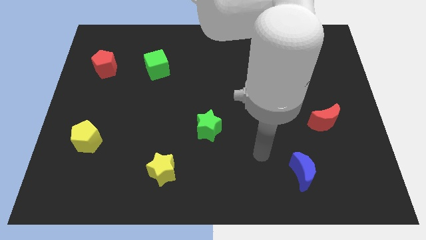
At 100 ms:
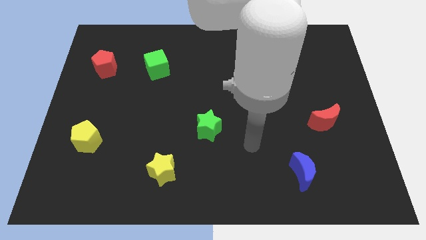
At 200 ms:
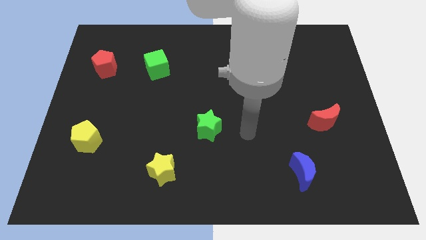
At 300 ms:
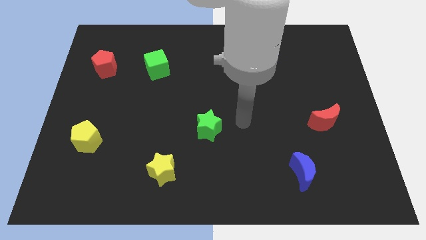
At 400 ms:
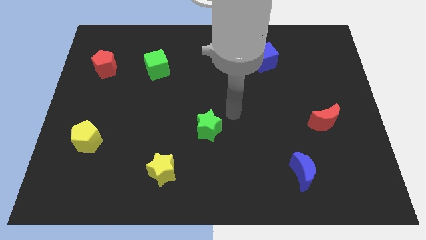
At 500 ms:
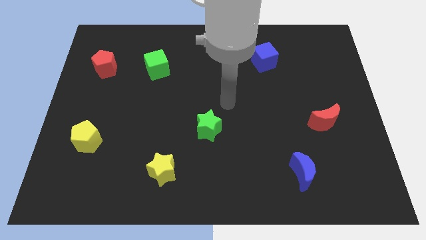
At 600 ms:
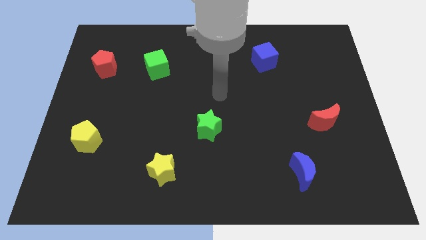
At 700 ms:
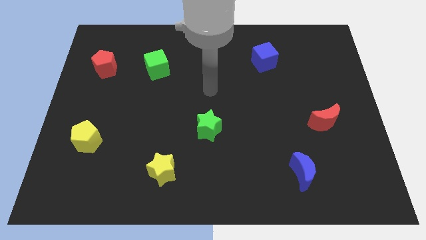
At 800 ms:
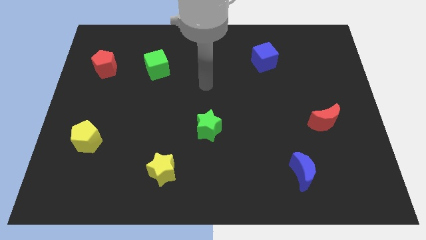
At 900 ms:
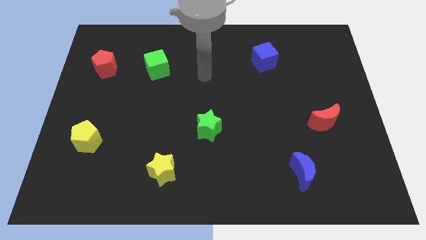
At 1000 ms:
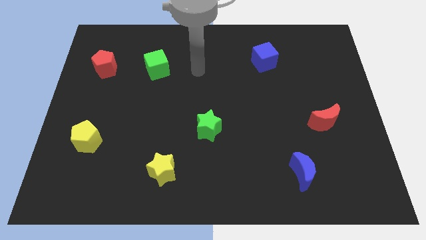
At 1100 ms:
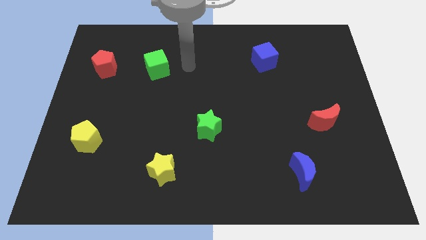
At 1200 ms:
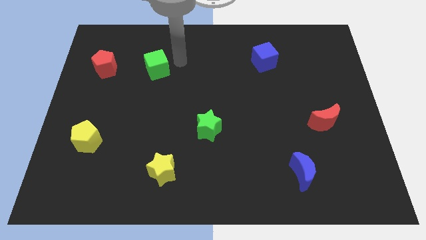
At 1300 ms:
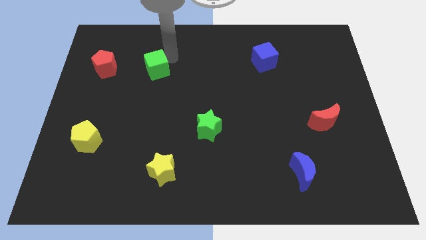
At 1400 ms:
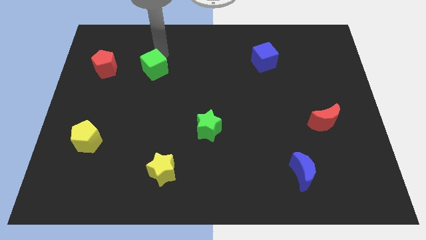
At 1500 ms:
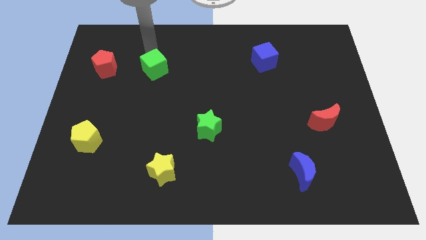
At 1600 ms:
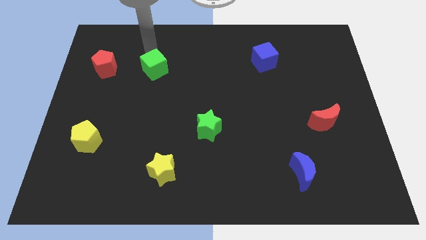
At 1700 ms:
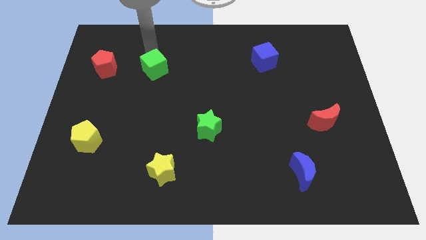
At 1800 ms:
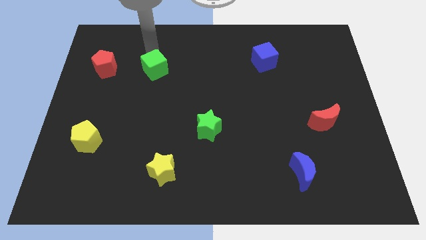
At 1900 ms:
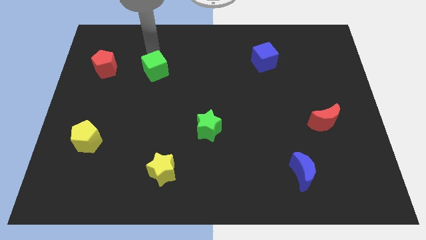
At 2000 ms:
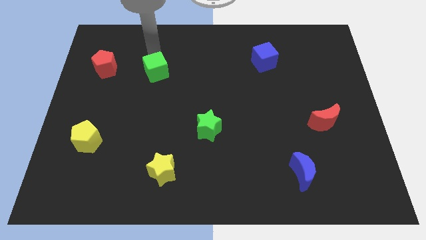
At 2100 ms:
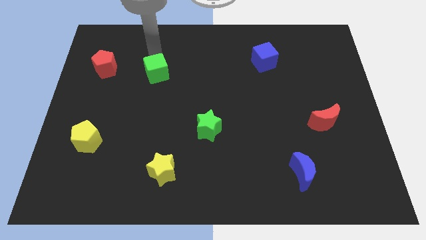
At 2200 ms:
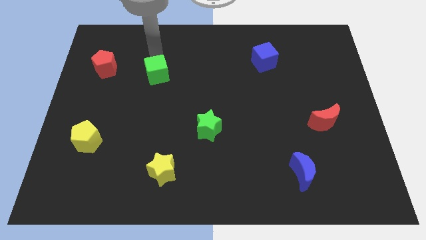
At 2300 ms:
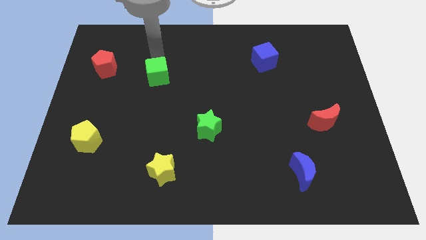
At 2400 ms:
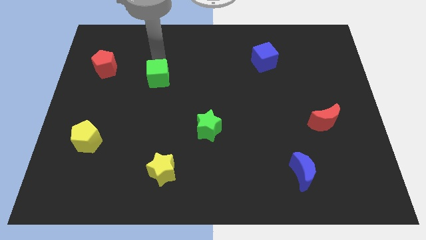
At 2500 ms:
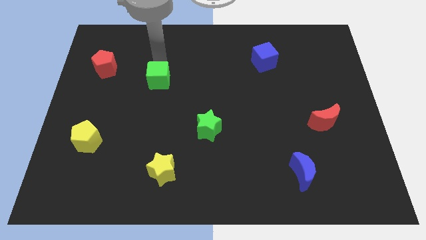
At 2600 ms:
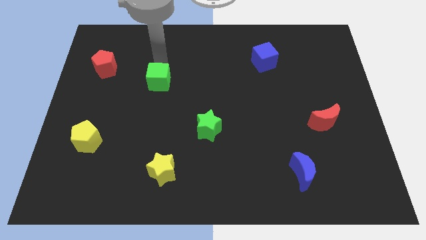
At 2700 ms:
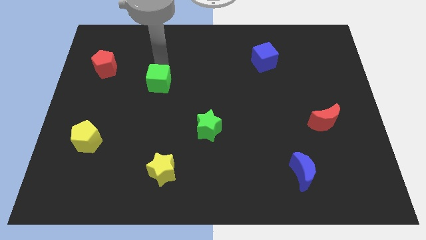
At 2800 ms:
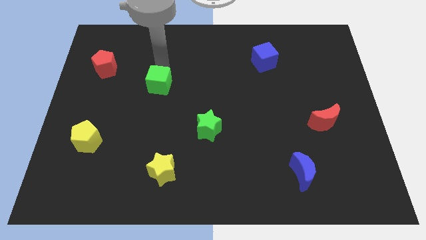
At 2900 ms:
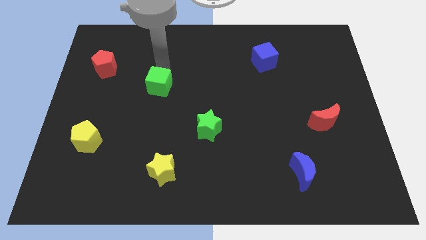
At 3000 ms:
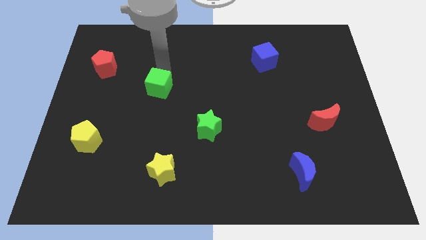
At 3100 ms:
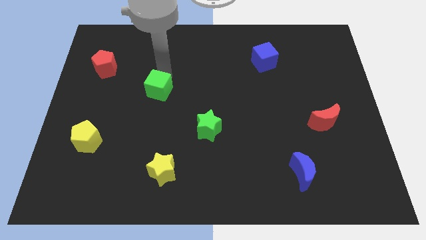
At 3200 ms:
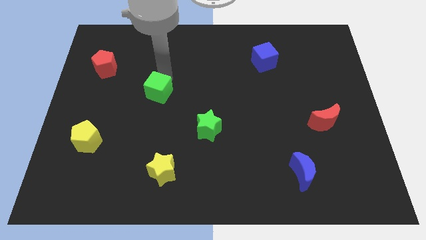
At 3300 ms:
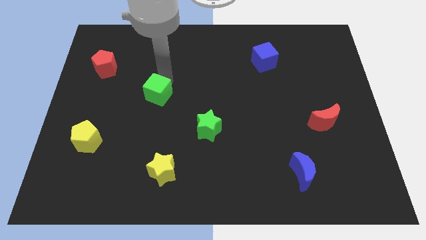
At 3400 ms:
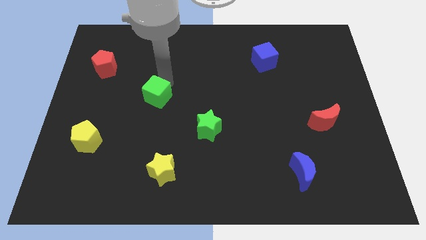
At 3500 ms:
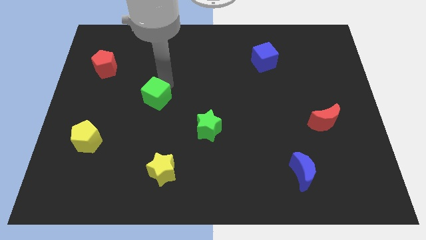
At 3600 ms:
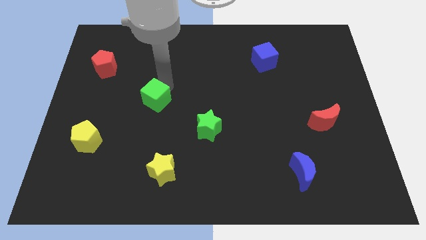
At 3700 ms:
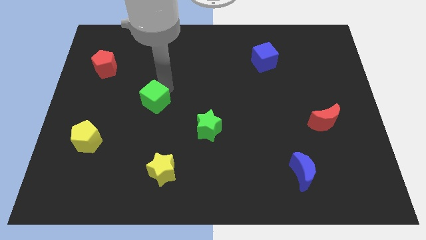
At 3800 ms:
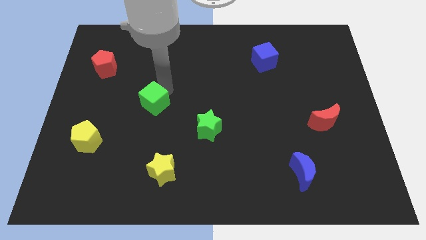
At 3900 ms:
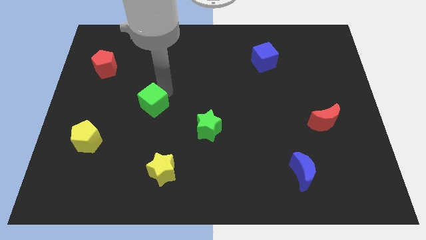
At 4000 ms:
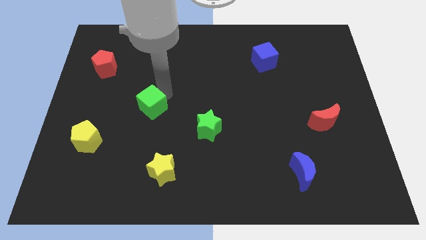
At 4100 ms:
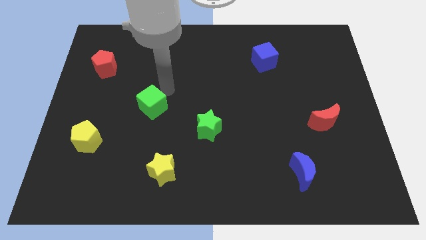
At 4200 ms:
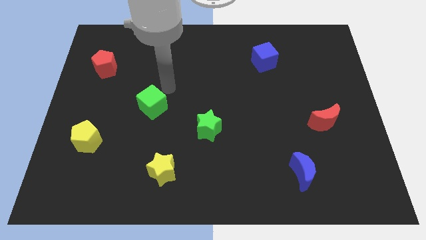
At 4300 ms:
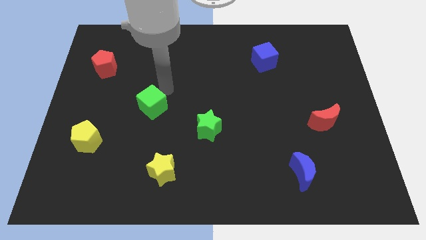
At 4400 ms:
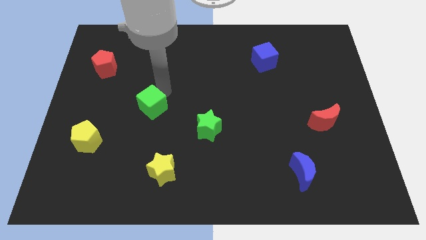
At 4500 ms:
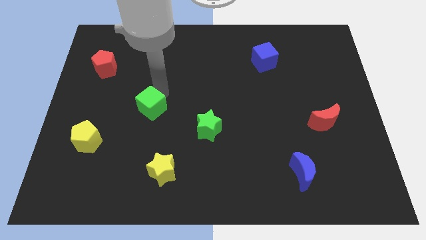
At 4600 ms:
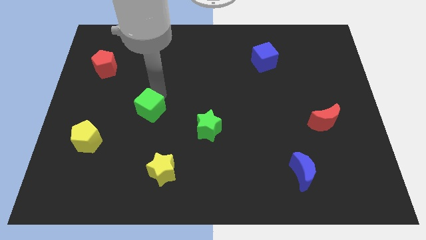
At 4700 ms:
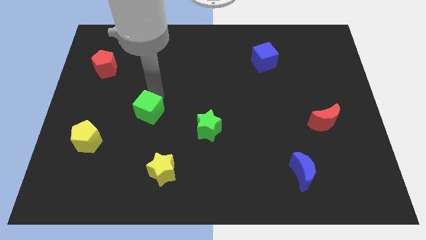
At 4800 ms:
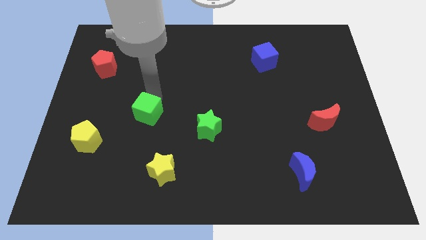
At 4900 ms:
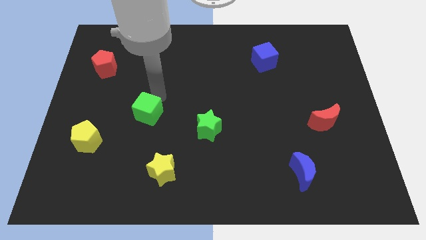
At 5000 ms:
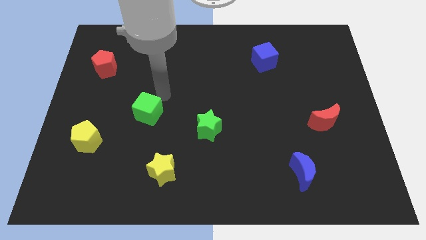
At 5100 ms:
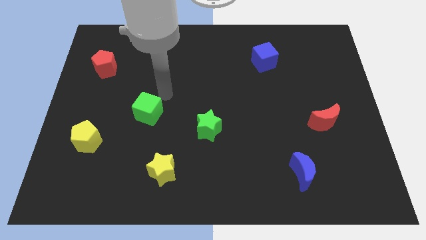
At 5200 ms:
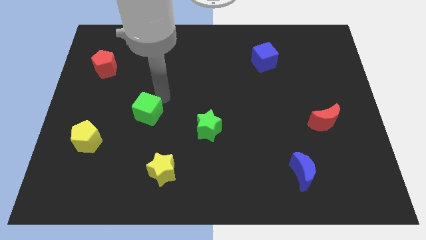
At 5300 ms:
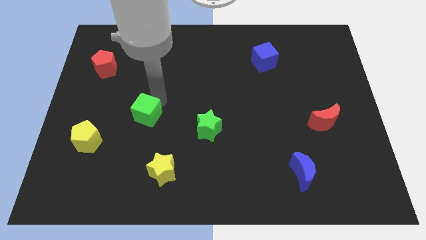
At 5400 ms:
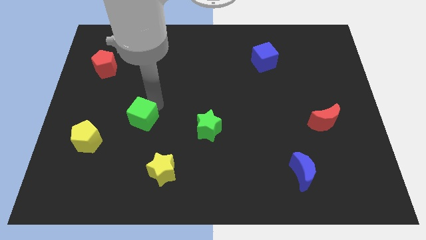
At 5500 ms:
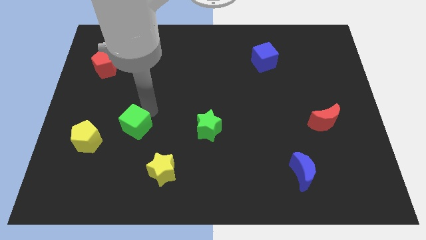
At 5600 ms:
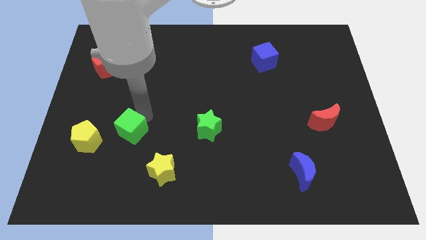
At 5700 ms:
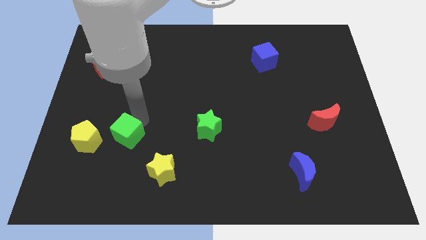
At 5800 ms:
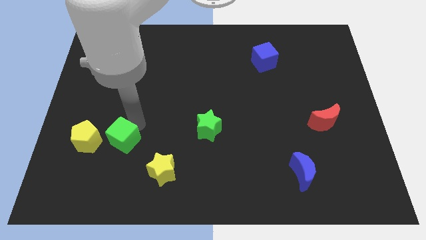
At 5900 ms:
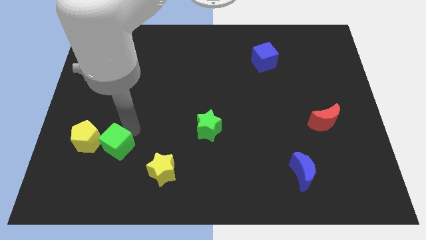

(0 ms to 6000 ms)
push the green cube diagonally down and to the right of the yellow pentagon

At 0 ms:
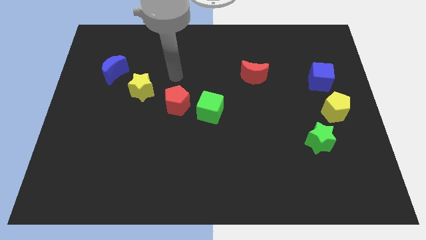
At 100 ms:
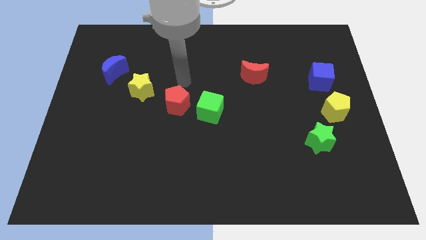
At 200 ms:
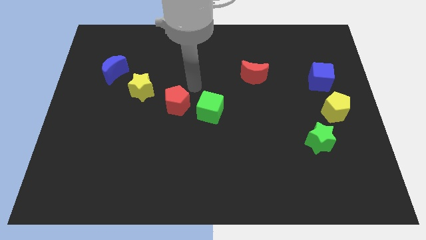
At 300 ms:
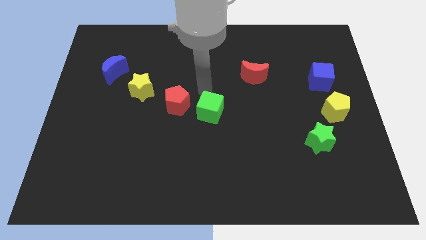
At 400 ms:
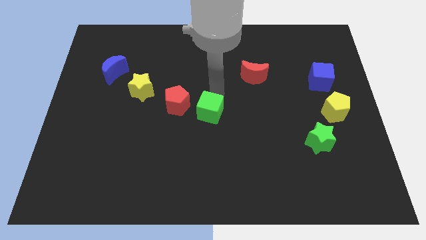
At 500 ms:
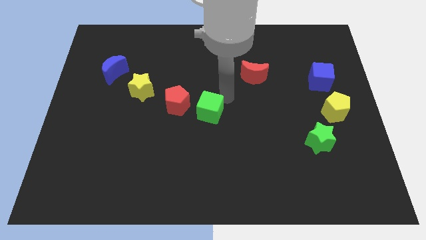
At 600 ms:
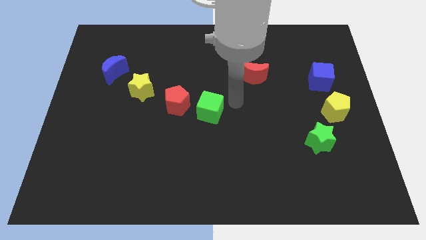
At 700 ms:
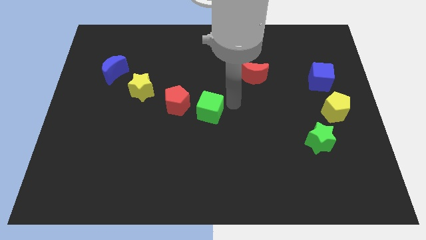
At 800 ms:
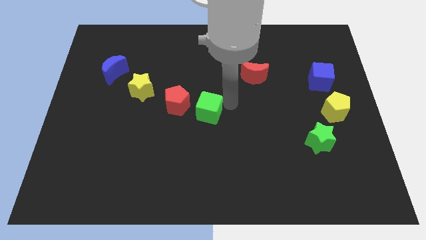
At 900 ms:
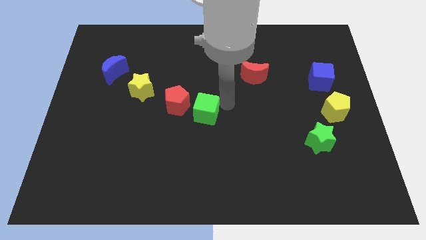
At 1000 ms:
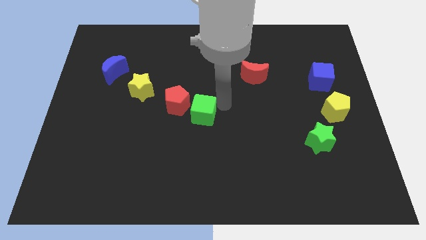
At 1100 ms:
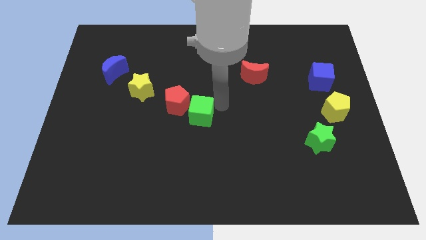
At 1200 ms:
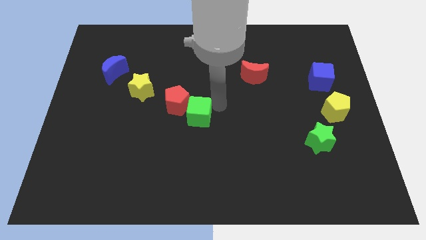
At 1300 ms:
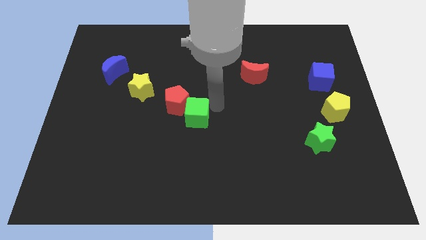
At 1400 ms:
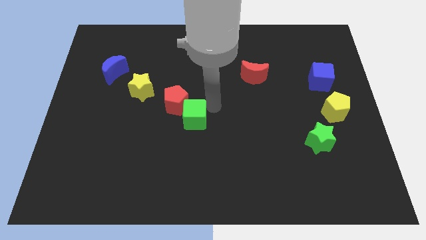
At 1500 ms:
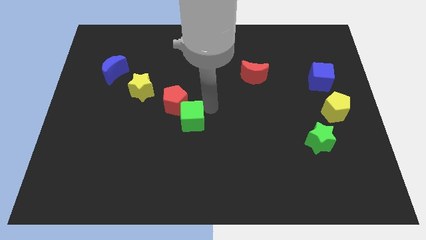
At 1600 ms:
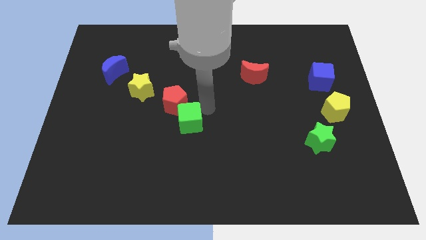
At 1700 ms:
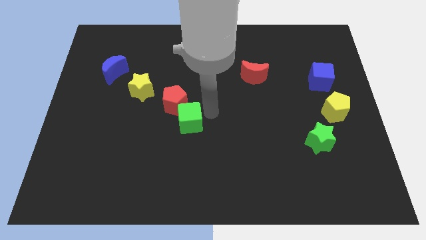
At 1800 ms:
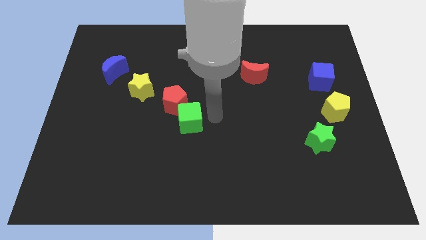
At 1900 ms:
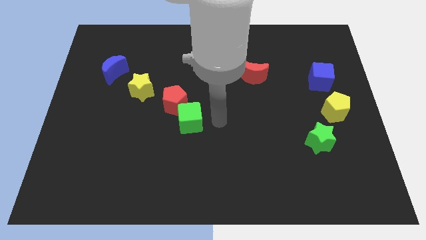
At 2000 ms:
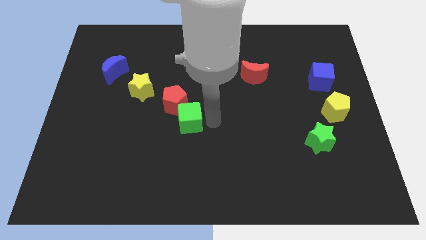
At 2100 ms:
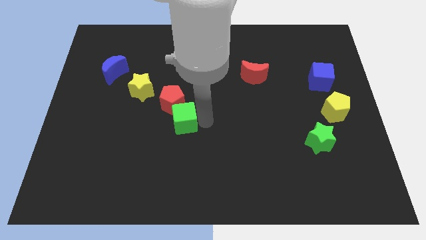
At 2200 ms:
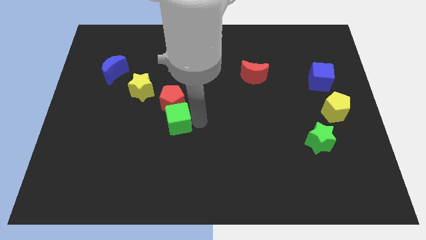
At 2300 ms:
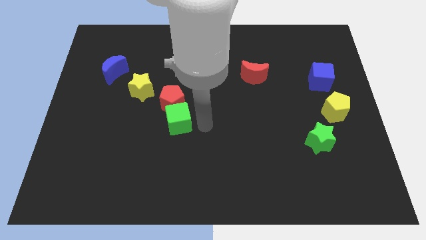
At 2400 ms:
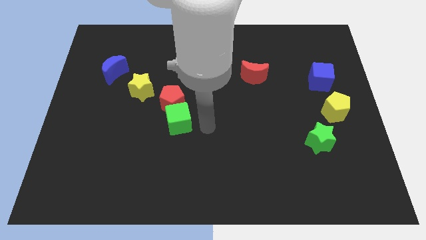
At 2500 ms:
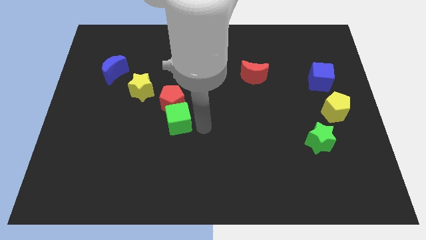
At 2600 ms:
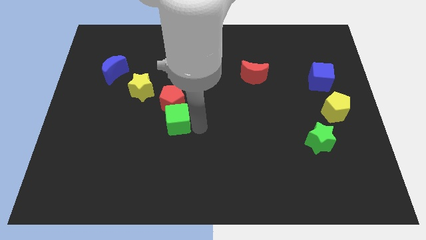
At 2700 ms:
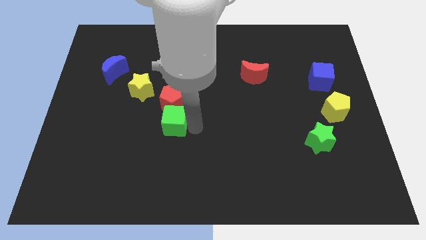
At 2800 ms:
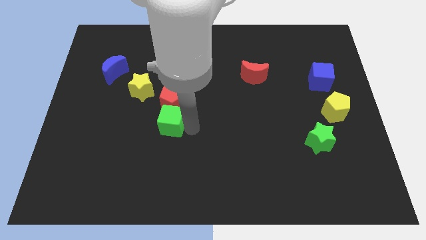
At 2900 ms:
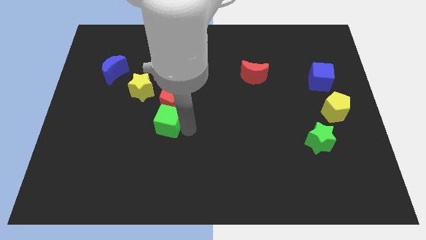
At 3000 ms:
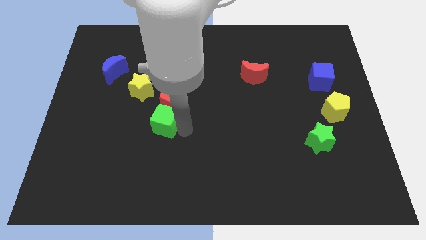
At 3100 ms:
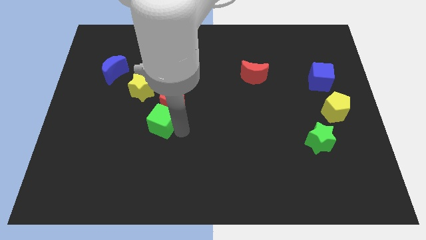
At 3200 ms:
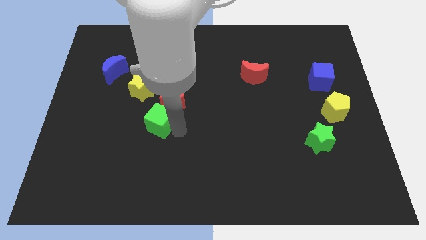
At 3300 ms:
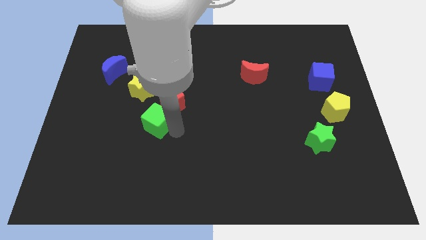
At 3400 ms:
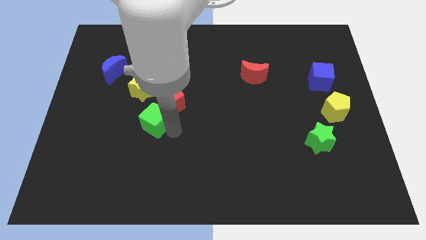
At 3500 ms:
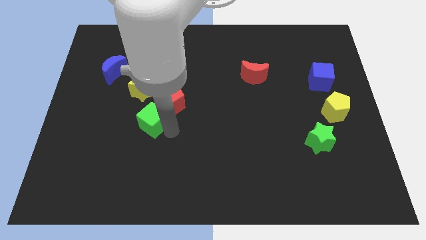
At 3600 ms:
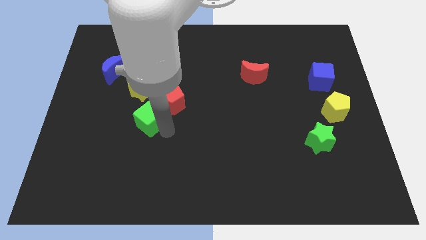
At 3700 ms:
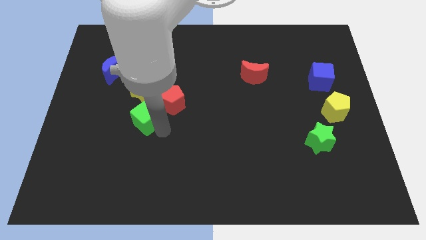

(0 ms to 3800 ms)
put the green cube left of the red pentagon
